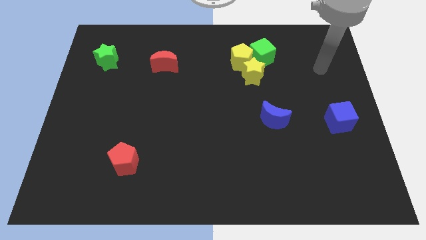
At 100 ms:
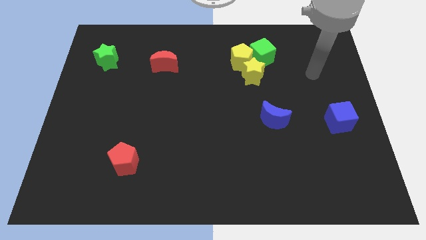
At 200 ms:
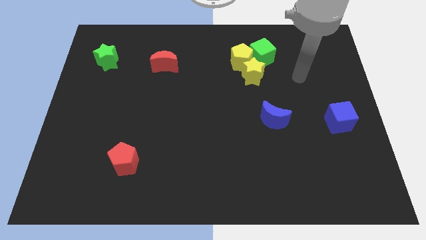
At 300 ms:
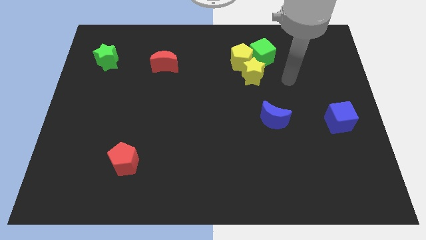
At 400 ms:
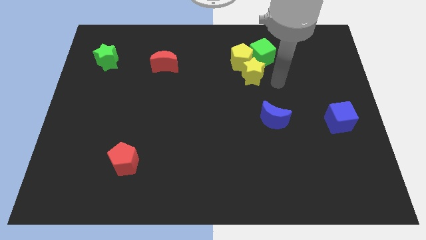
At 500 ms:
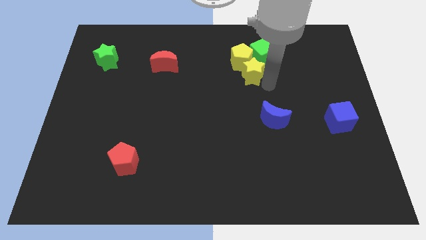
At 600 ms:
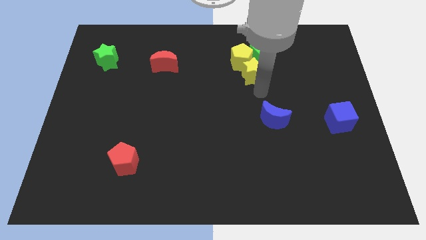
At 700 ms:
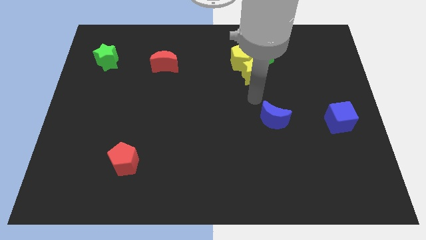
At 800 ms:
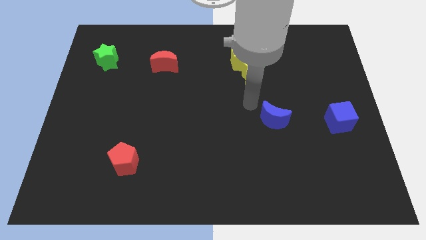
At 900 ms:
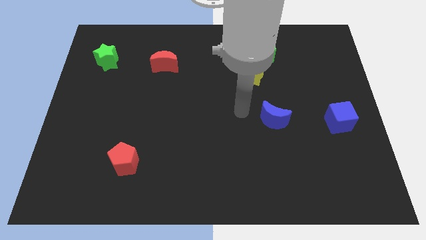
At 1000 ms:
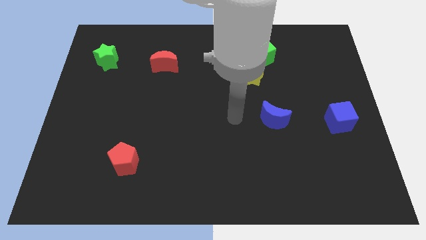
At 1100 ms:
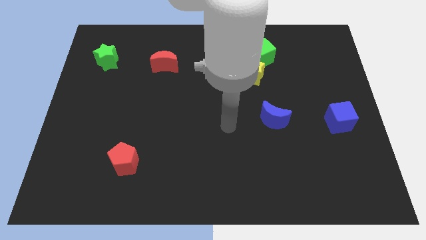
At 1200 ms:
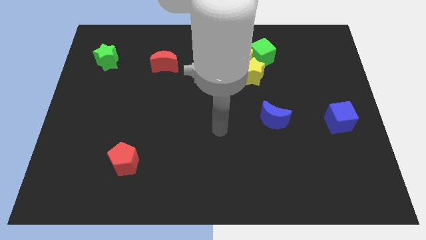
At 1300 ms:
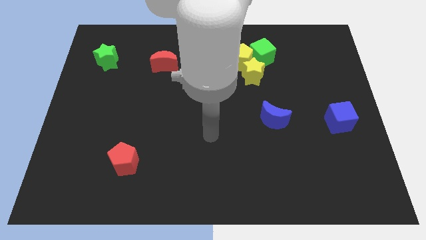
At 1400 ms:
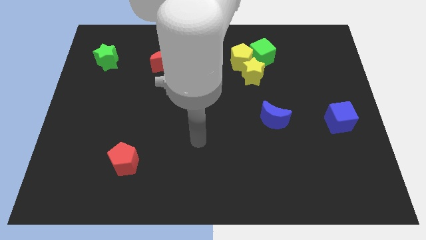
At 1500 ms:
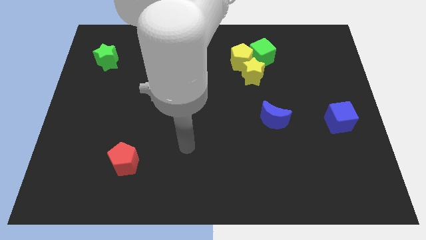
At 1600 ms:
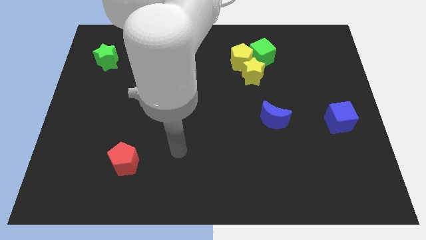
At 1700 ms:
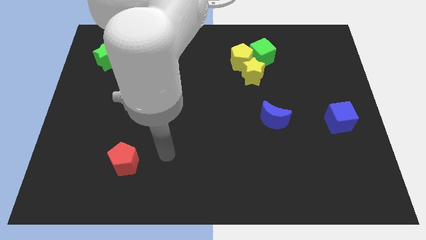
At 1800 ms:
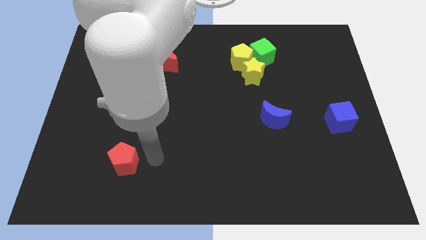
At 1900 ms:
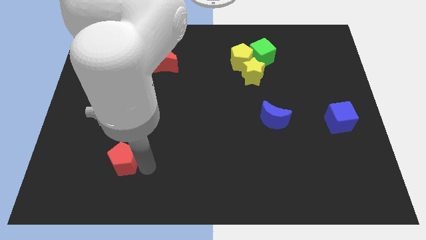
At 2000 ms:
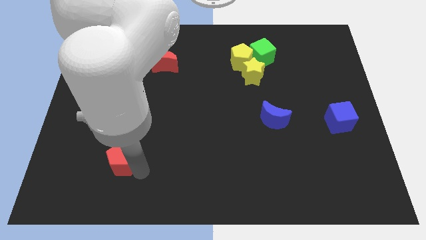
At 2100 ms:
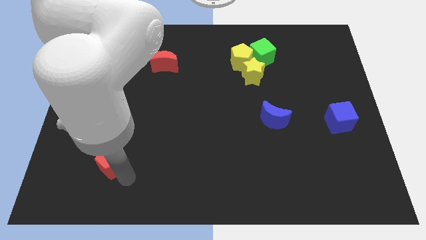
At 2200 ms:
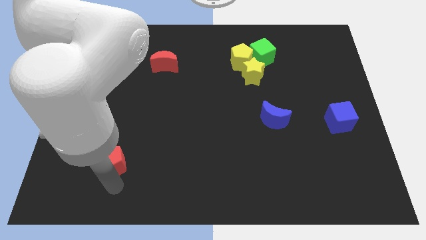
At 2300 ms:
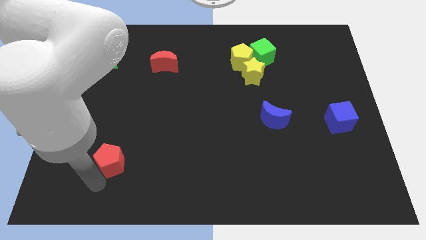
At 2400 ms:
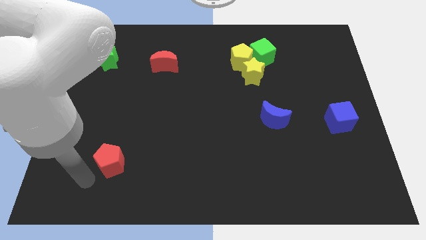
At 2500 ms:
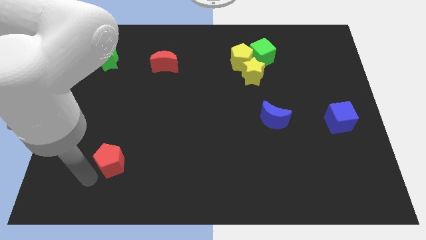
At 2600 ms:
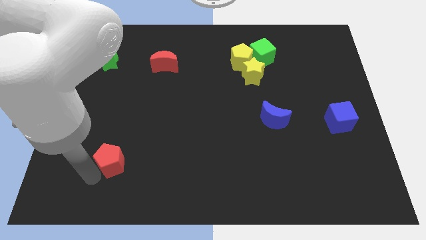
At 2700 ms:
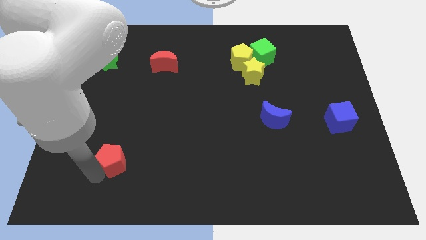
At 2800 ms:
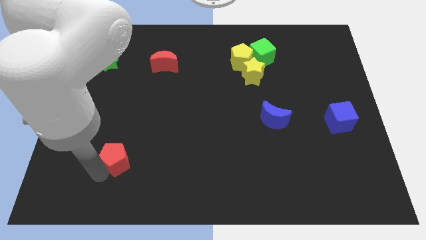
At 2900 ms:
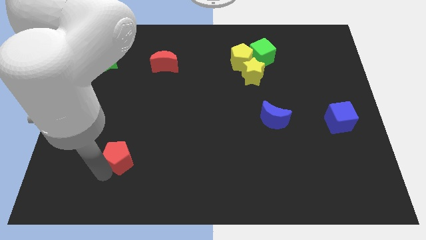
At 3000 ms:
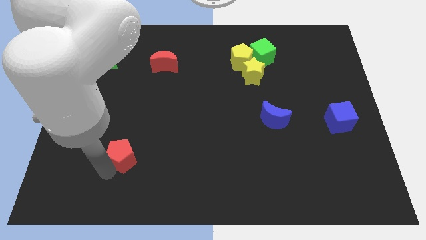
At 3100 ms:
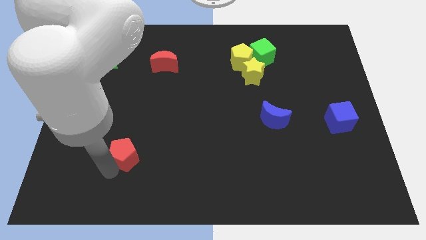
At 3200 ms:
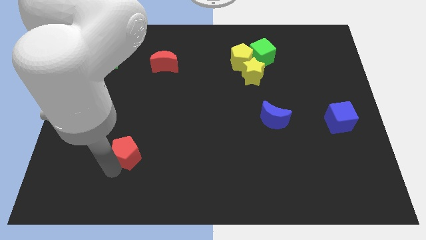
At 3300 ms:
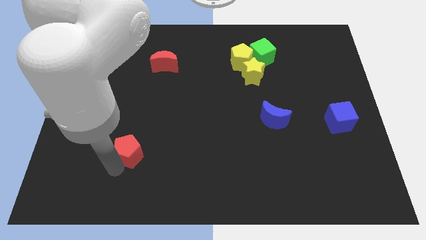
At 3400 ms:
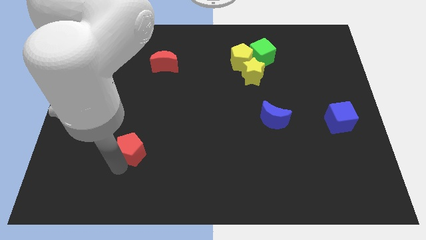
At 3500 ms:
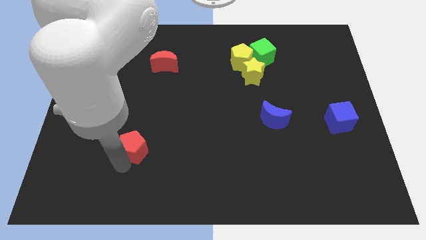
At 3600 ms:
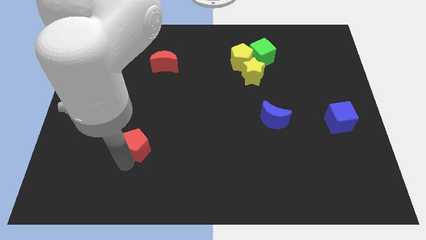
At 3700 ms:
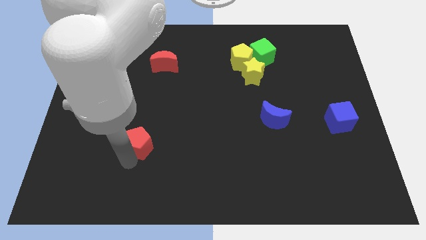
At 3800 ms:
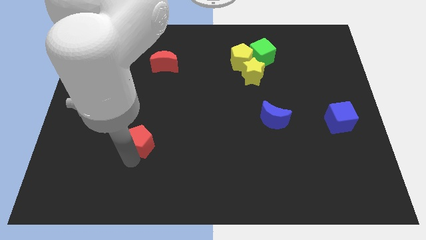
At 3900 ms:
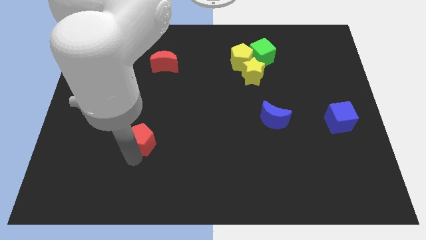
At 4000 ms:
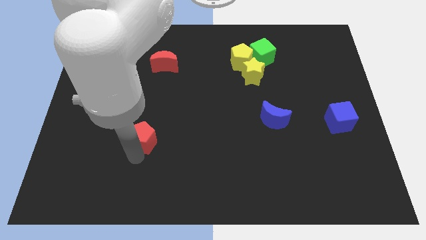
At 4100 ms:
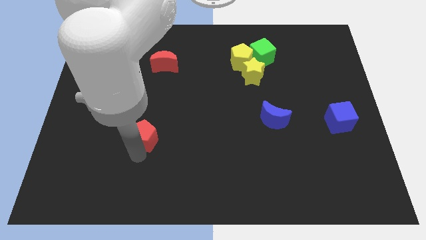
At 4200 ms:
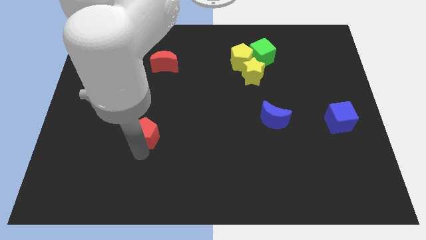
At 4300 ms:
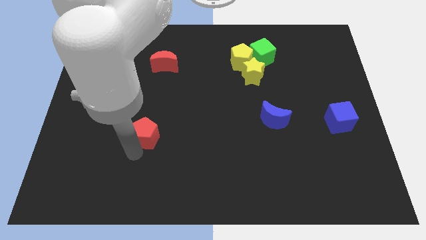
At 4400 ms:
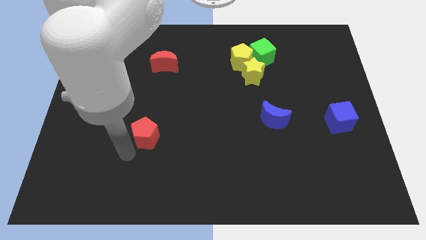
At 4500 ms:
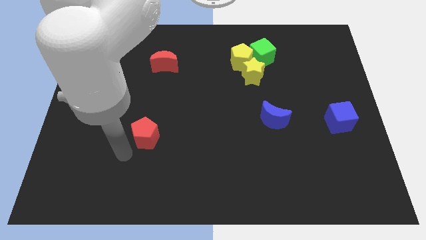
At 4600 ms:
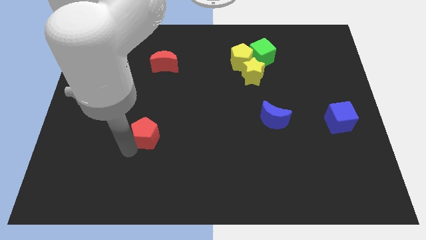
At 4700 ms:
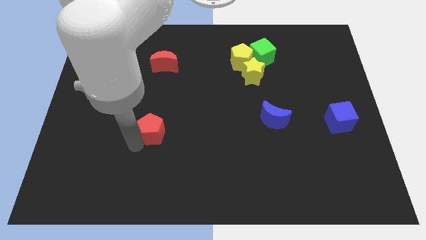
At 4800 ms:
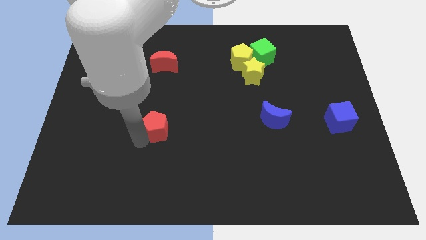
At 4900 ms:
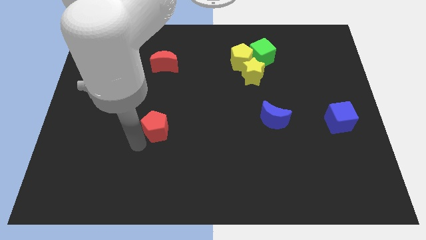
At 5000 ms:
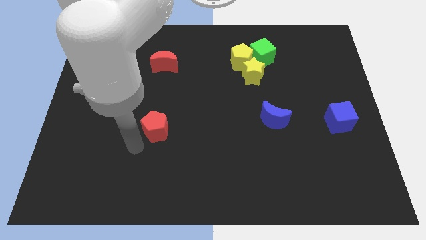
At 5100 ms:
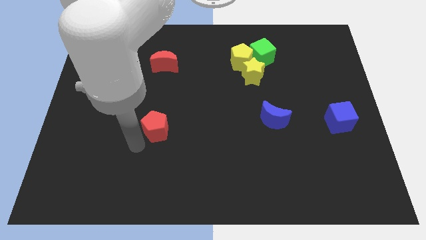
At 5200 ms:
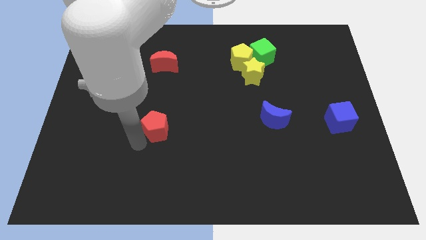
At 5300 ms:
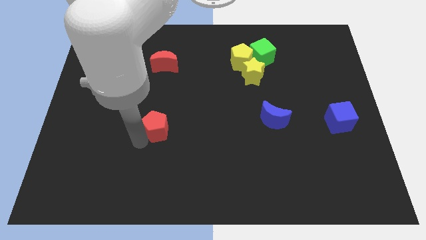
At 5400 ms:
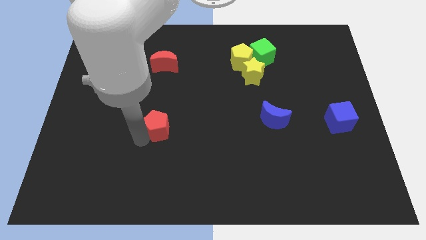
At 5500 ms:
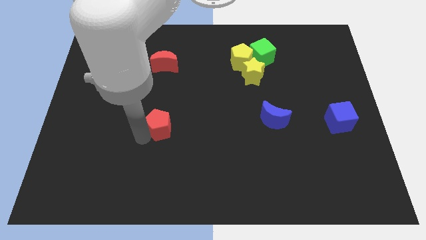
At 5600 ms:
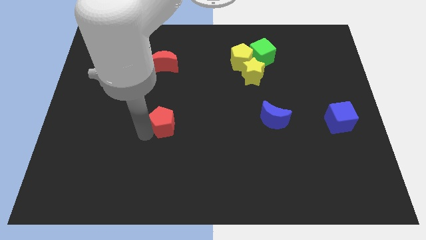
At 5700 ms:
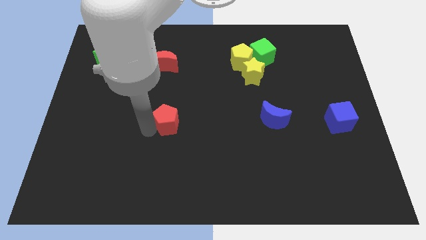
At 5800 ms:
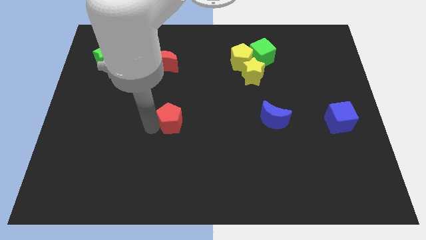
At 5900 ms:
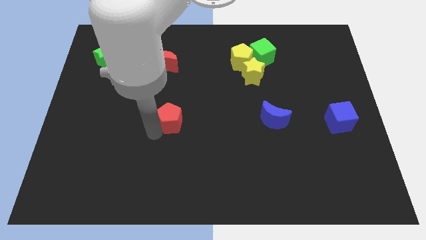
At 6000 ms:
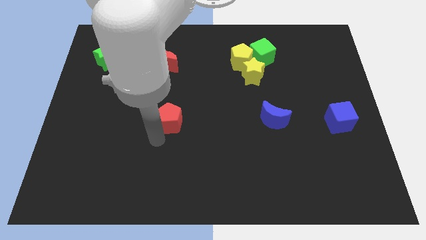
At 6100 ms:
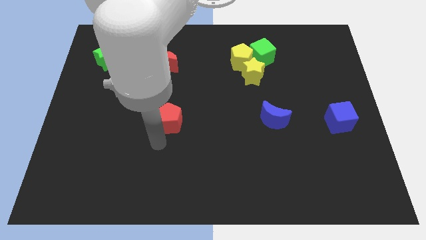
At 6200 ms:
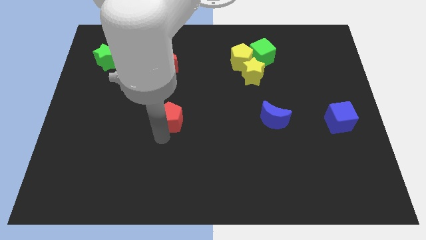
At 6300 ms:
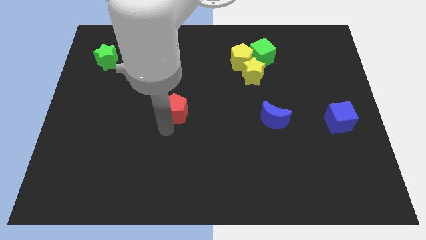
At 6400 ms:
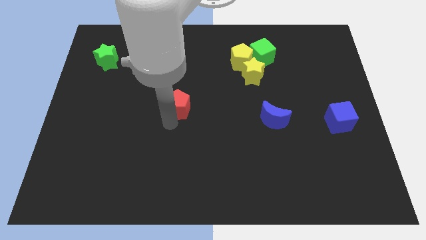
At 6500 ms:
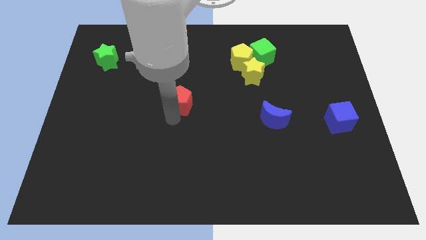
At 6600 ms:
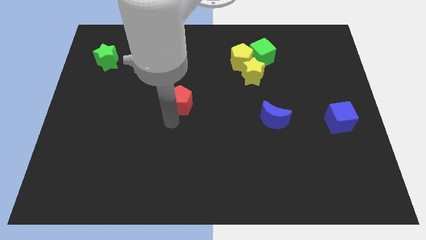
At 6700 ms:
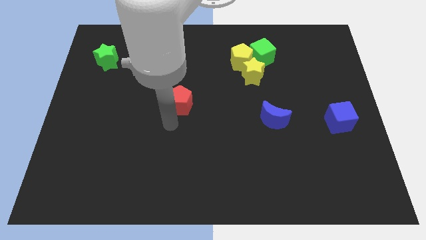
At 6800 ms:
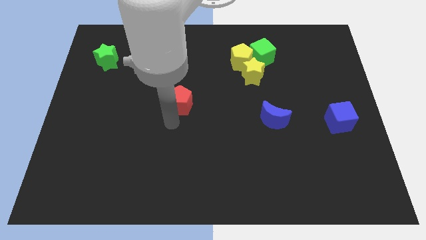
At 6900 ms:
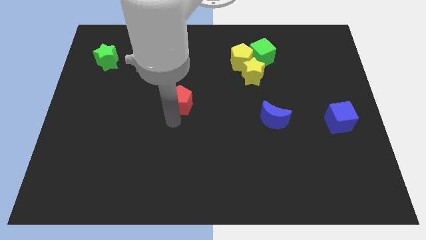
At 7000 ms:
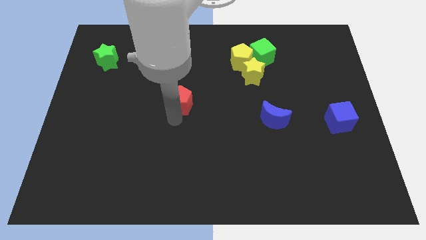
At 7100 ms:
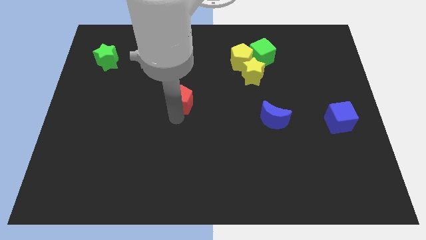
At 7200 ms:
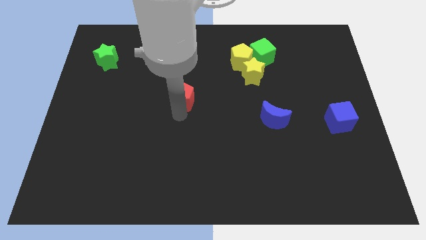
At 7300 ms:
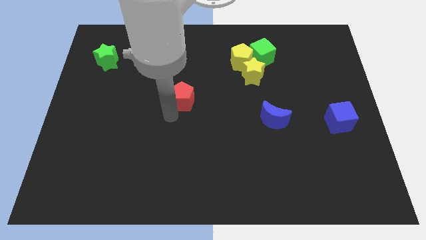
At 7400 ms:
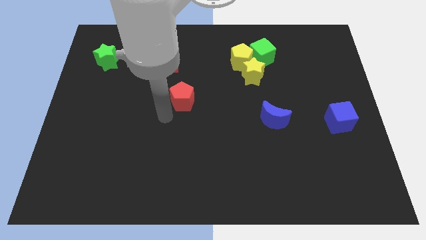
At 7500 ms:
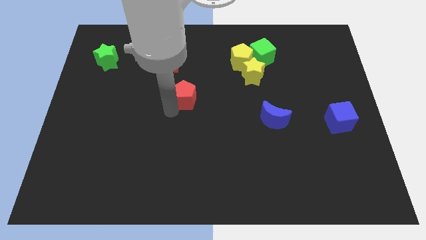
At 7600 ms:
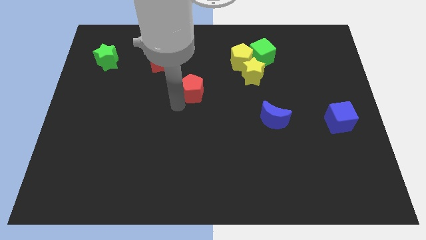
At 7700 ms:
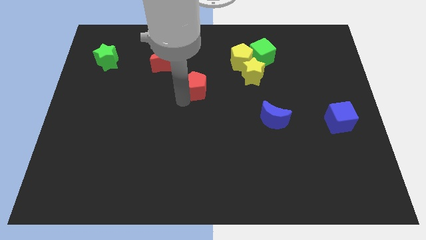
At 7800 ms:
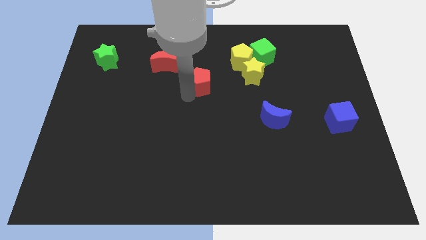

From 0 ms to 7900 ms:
put the red pentagon to the left side of the yellow star

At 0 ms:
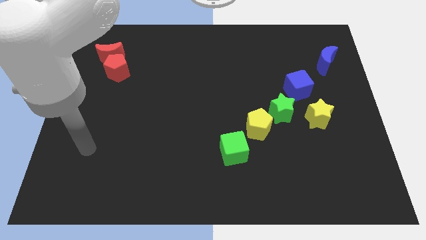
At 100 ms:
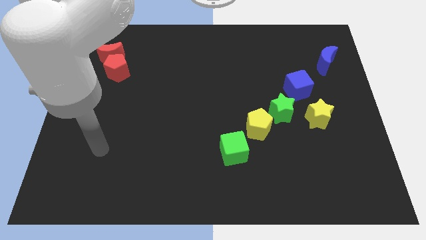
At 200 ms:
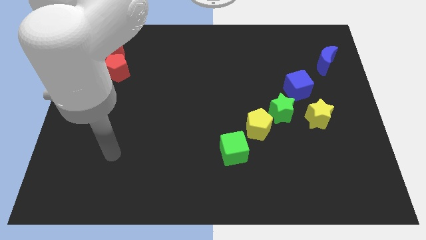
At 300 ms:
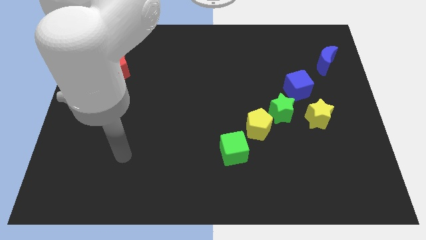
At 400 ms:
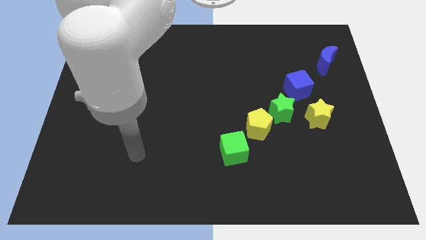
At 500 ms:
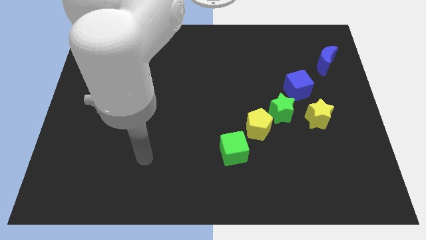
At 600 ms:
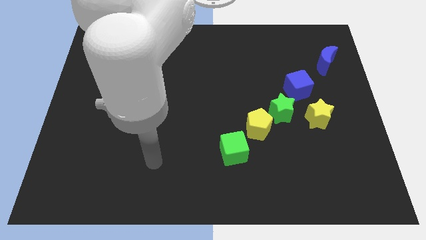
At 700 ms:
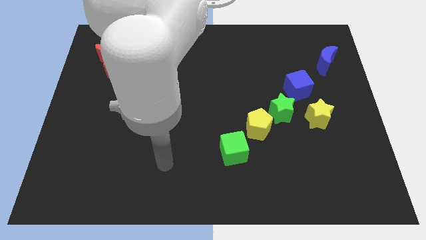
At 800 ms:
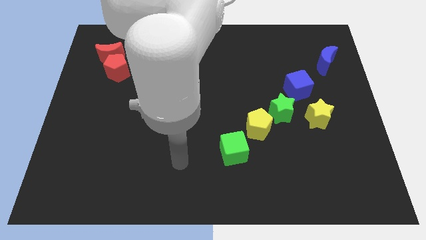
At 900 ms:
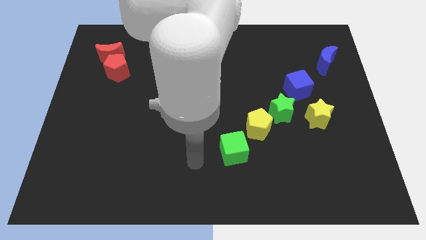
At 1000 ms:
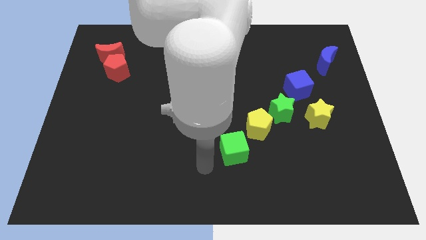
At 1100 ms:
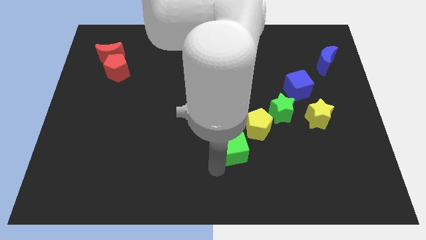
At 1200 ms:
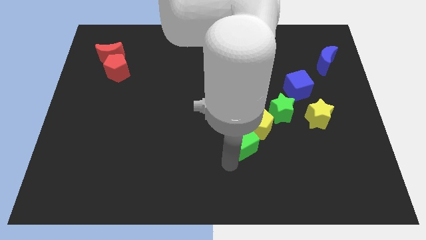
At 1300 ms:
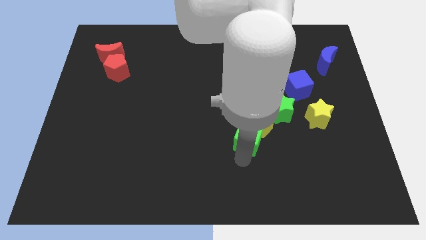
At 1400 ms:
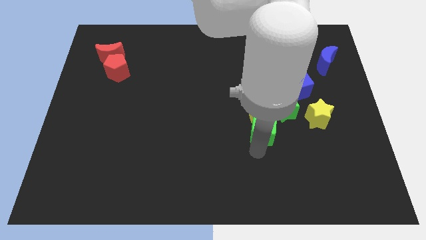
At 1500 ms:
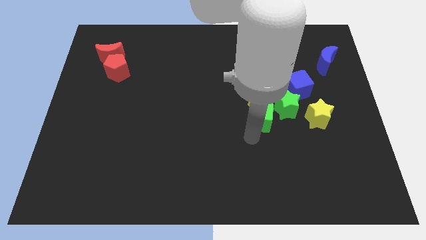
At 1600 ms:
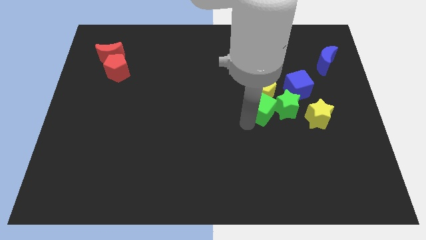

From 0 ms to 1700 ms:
slide the yellow pentagon above the green star
